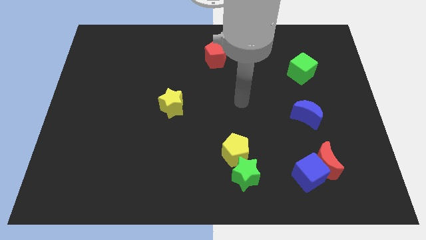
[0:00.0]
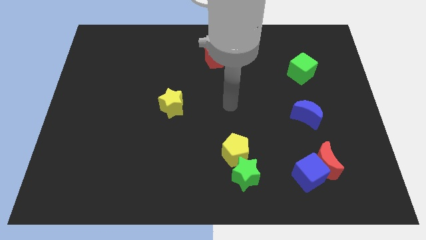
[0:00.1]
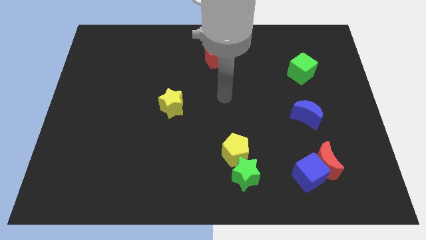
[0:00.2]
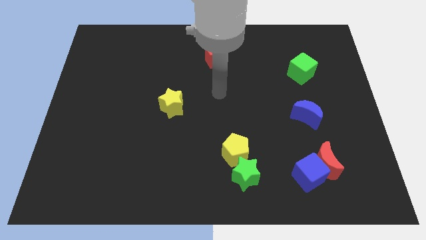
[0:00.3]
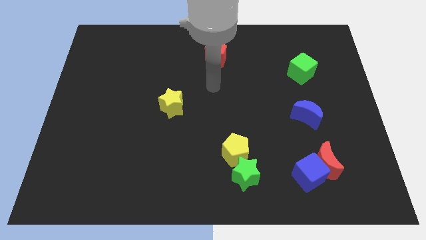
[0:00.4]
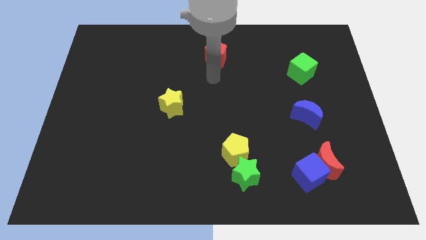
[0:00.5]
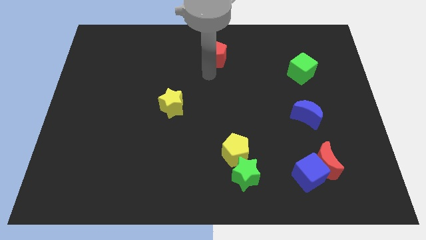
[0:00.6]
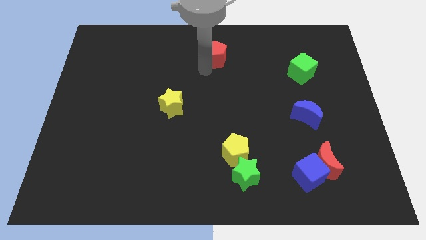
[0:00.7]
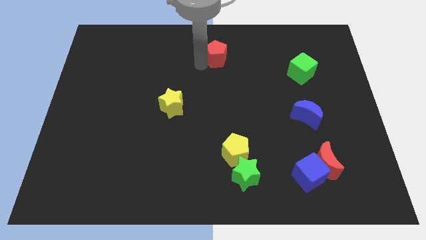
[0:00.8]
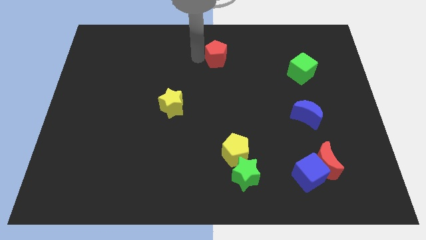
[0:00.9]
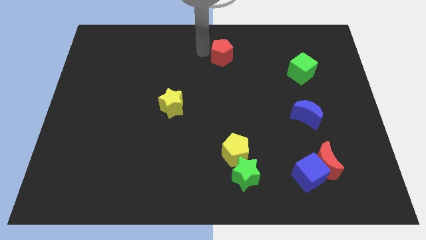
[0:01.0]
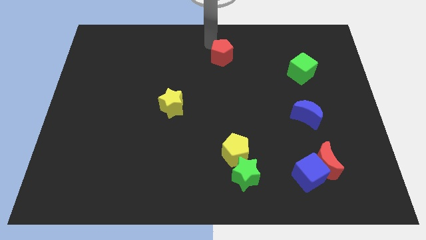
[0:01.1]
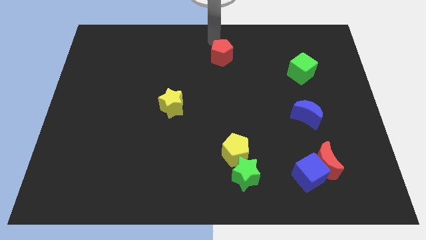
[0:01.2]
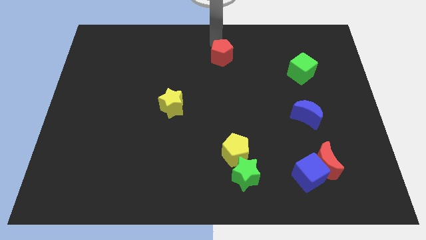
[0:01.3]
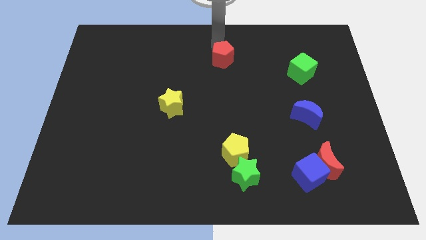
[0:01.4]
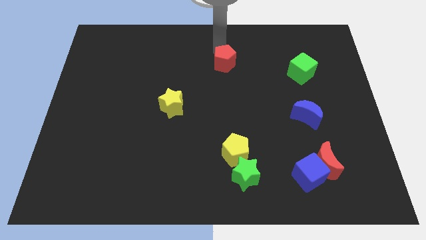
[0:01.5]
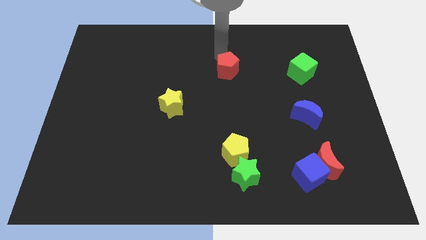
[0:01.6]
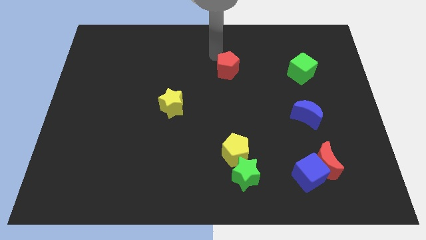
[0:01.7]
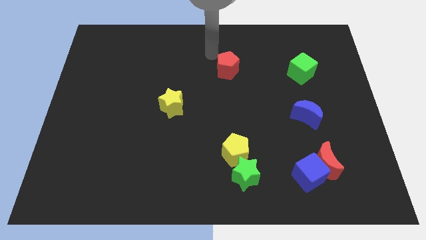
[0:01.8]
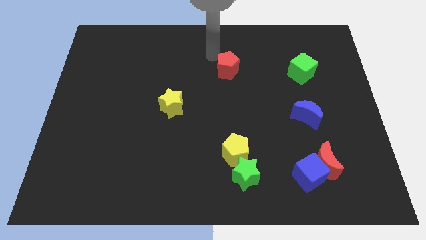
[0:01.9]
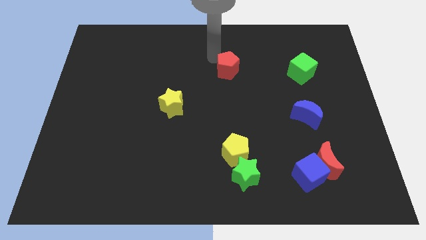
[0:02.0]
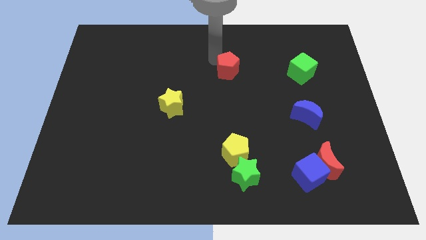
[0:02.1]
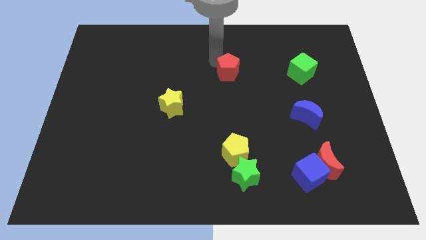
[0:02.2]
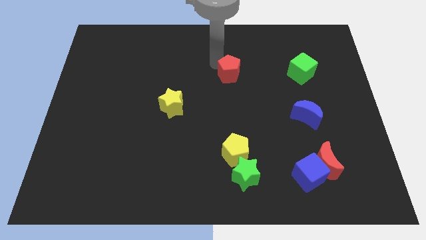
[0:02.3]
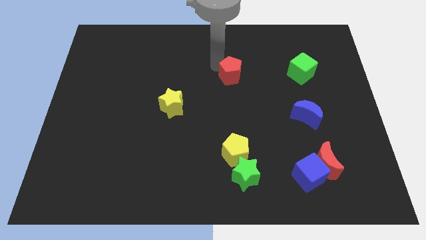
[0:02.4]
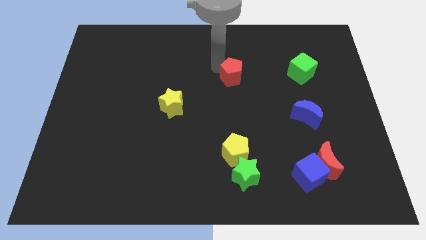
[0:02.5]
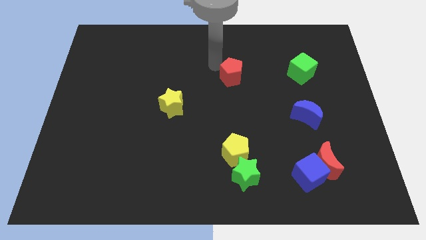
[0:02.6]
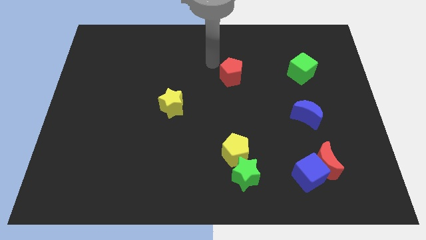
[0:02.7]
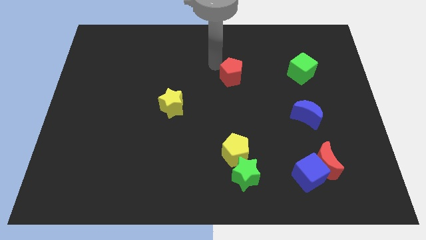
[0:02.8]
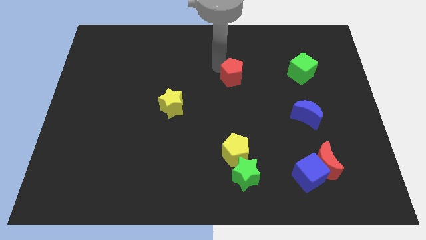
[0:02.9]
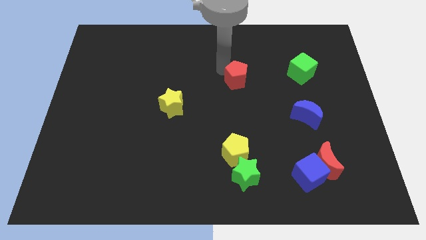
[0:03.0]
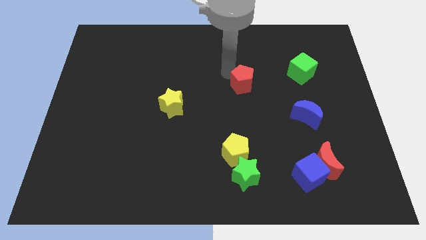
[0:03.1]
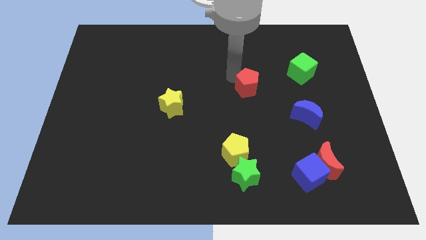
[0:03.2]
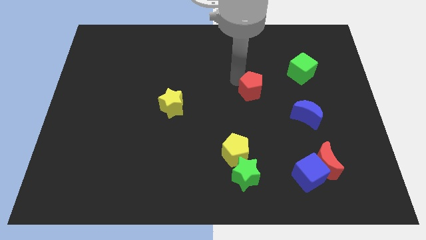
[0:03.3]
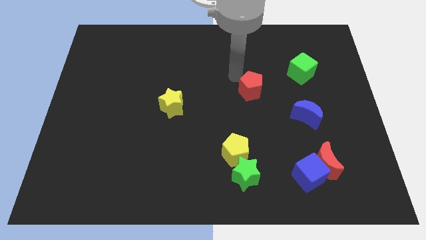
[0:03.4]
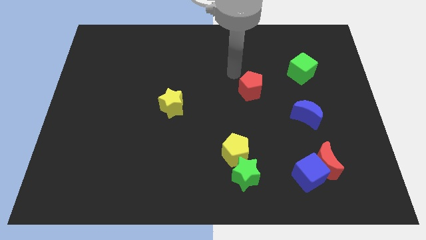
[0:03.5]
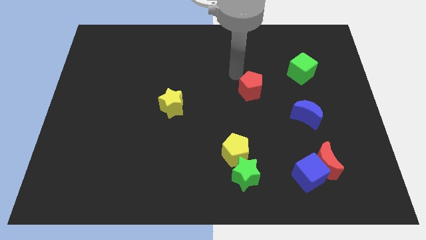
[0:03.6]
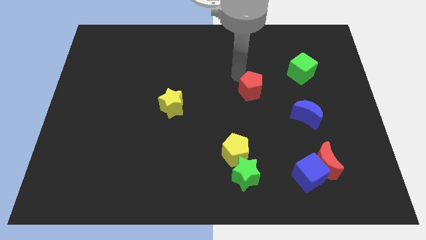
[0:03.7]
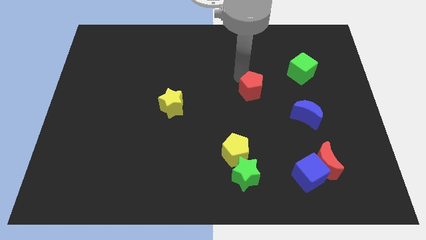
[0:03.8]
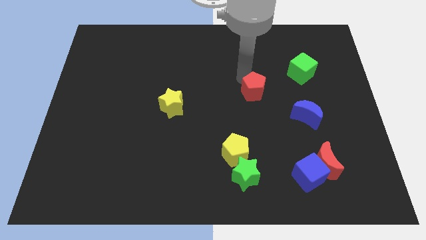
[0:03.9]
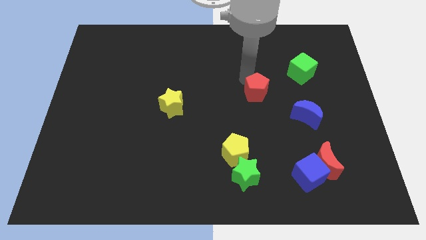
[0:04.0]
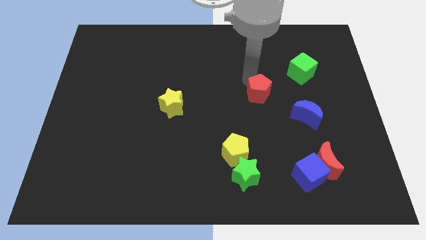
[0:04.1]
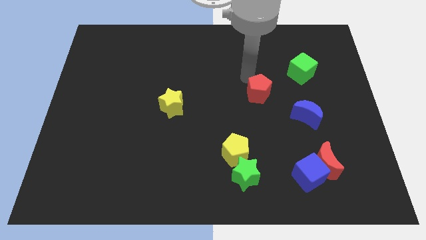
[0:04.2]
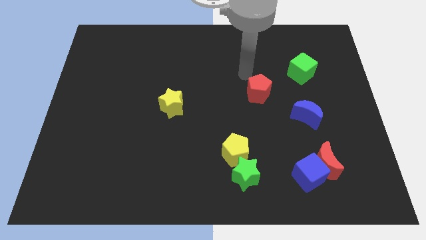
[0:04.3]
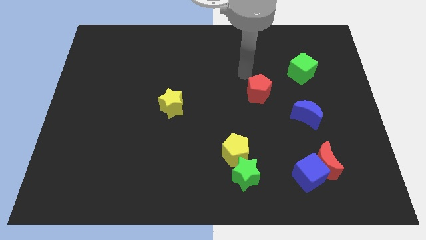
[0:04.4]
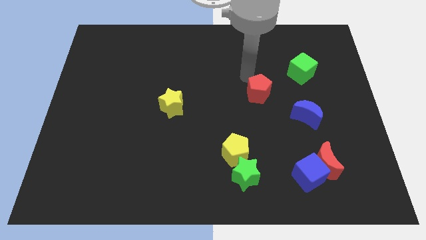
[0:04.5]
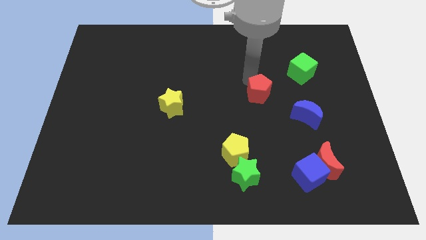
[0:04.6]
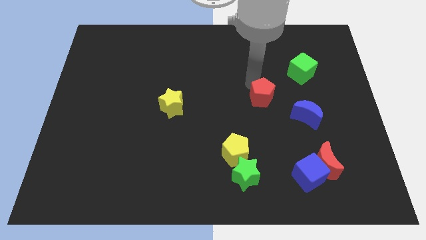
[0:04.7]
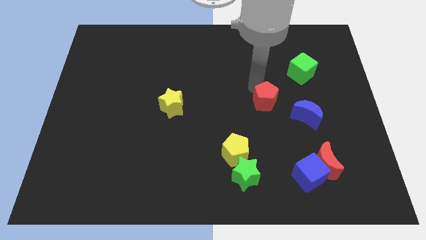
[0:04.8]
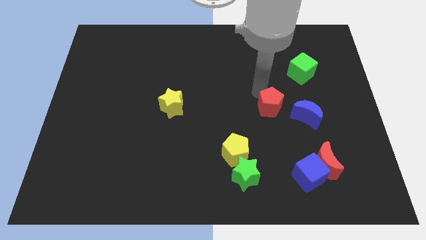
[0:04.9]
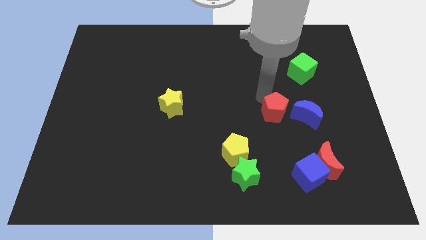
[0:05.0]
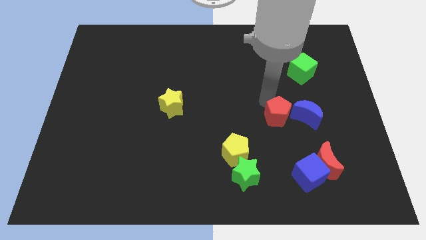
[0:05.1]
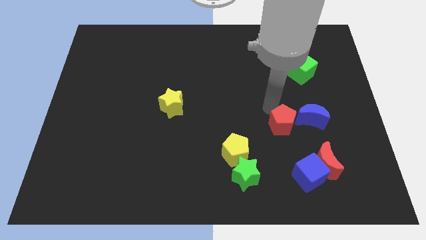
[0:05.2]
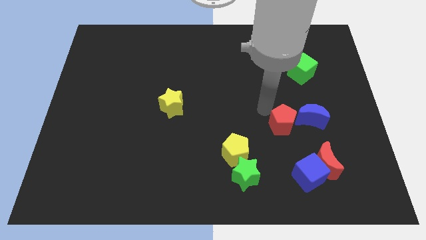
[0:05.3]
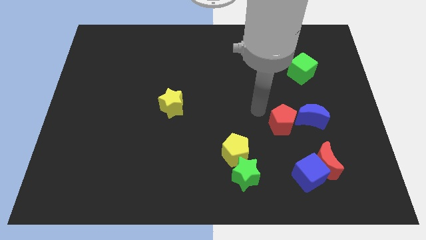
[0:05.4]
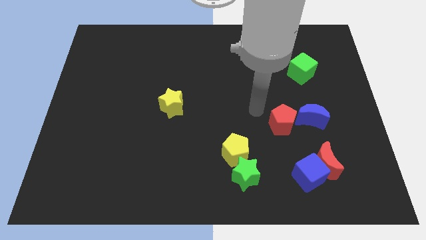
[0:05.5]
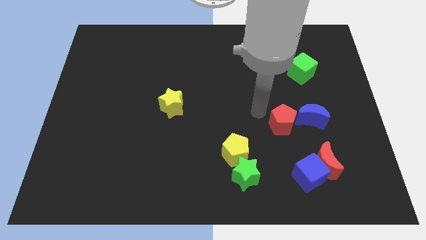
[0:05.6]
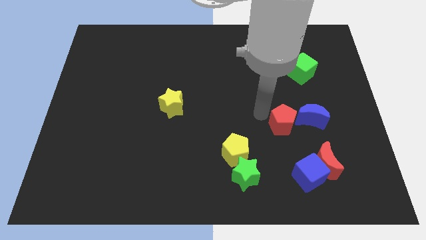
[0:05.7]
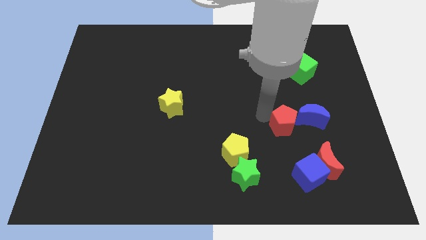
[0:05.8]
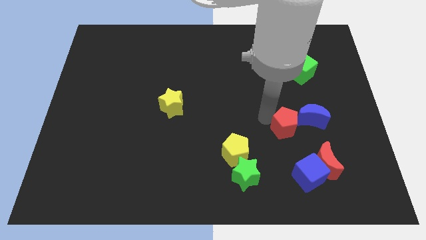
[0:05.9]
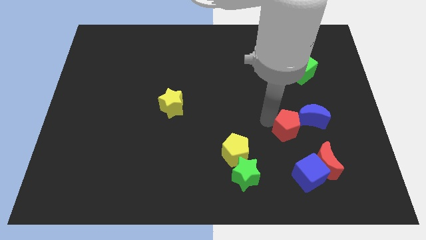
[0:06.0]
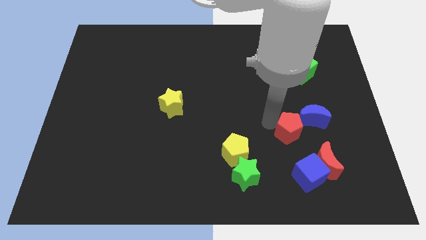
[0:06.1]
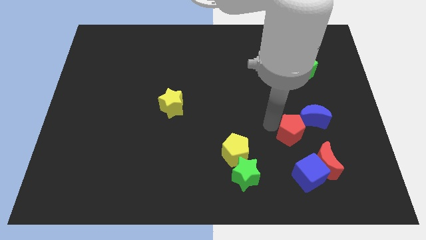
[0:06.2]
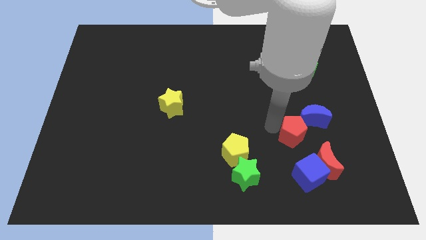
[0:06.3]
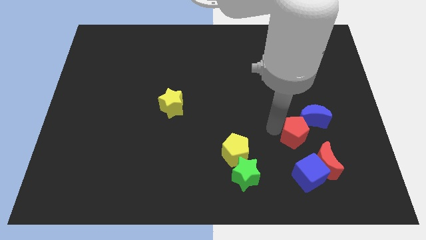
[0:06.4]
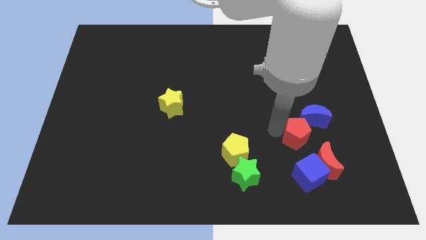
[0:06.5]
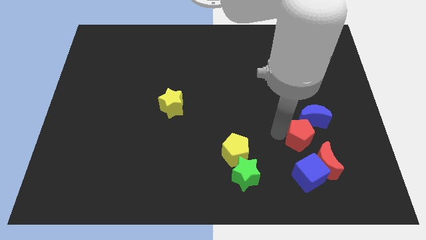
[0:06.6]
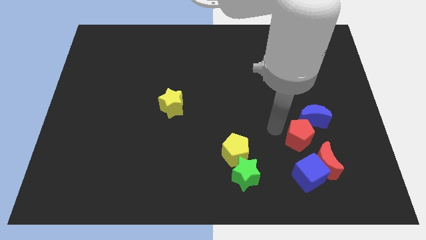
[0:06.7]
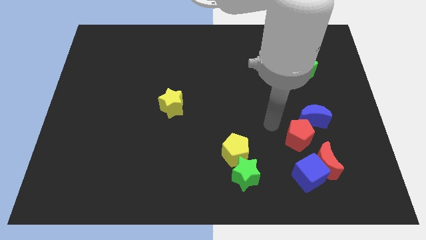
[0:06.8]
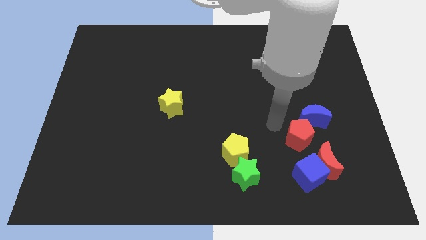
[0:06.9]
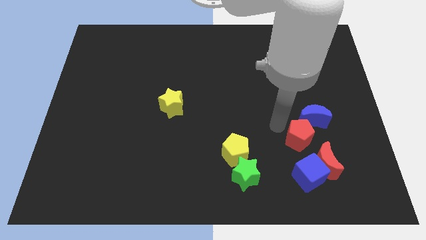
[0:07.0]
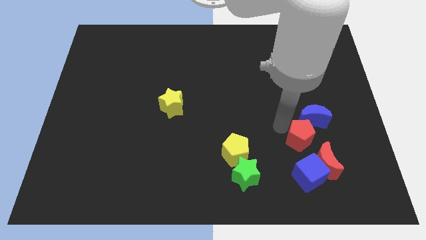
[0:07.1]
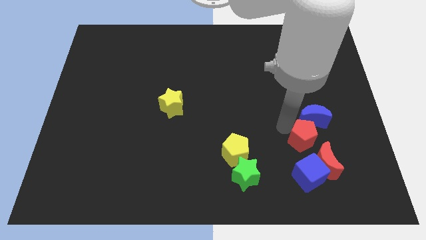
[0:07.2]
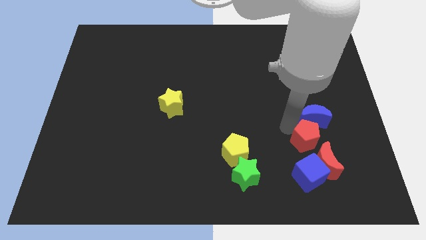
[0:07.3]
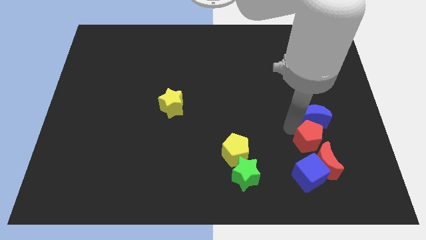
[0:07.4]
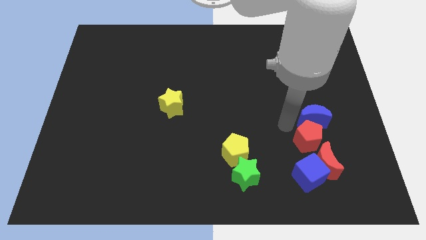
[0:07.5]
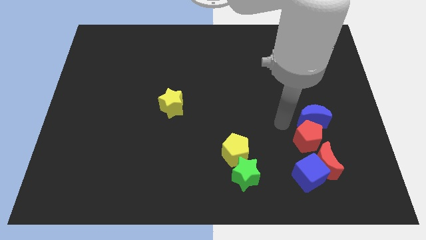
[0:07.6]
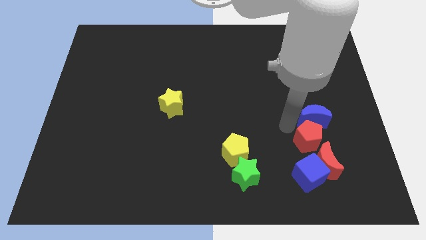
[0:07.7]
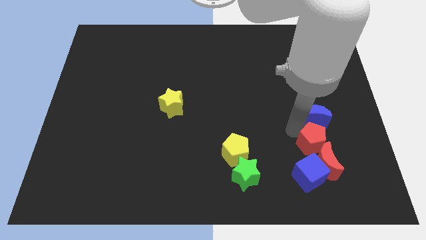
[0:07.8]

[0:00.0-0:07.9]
put the red pentagon to the top right of the blue cube
